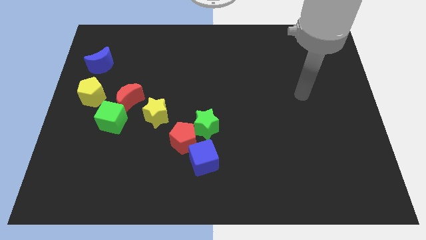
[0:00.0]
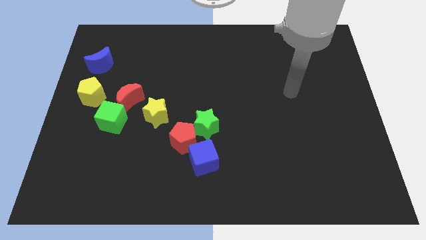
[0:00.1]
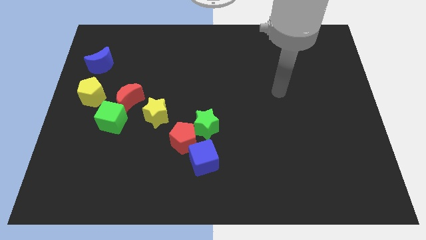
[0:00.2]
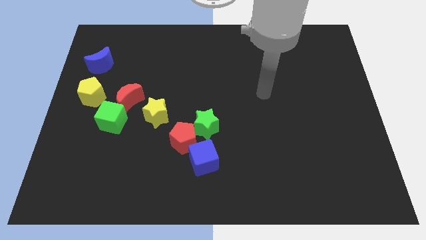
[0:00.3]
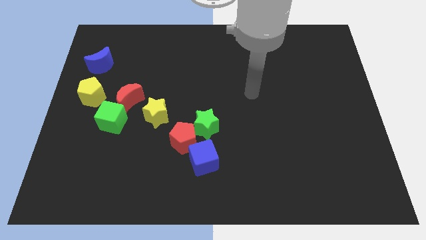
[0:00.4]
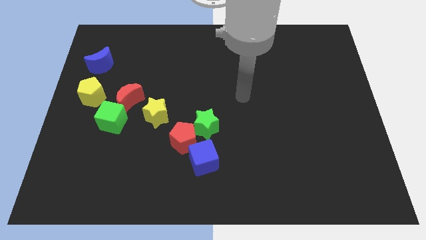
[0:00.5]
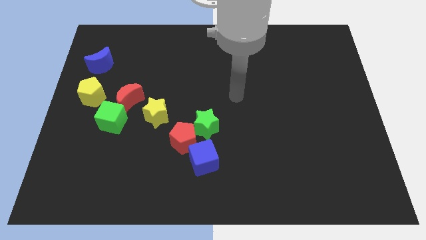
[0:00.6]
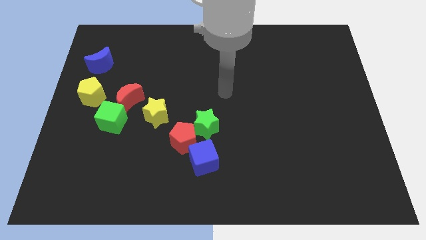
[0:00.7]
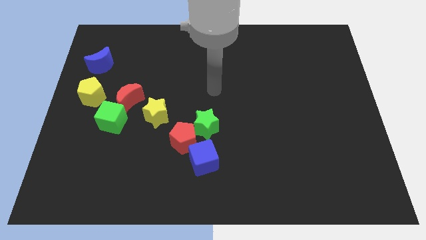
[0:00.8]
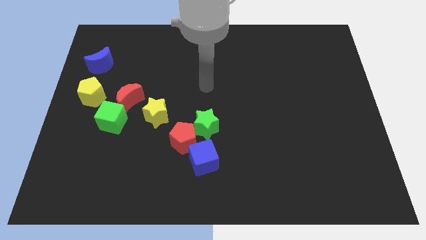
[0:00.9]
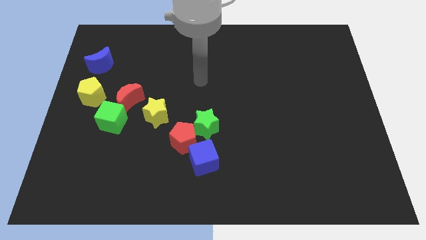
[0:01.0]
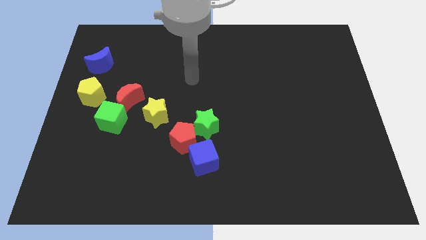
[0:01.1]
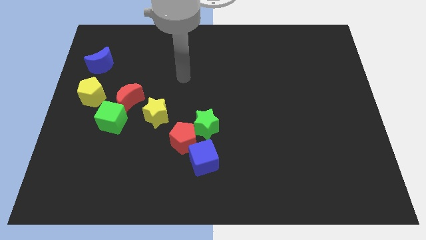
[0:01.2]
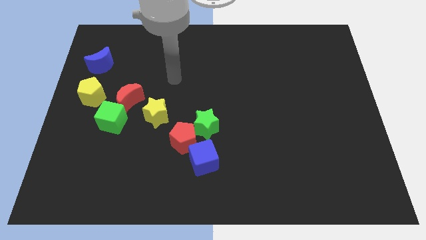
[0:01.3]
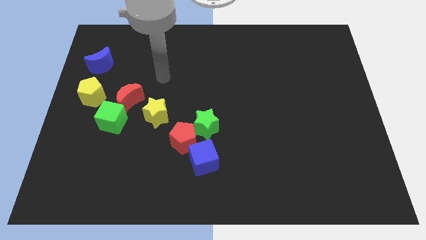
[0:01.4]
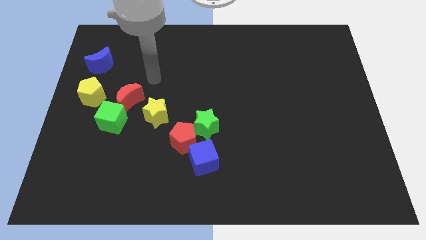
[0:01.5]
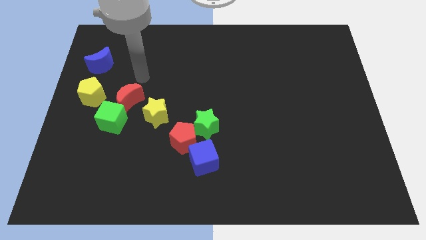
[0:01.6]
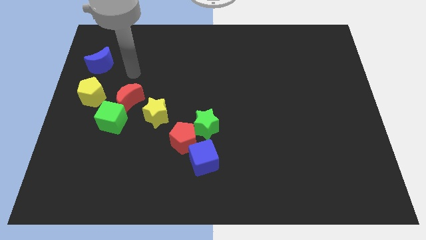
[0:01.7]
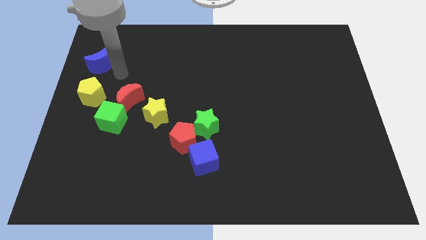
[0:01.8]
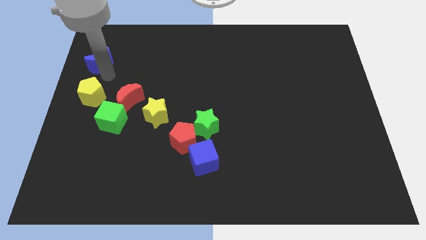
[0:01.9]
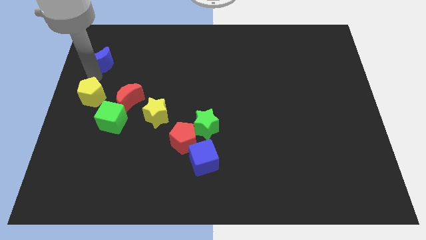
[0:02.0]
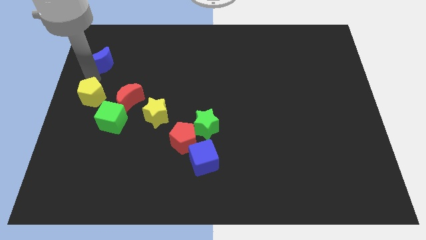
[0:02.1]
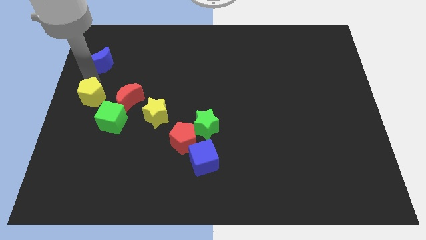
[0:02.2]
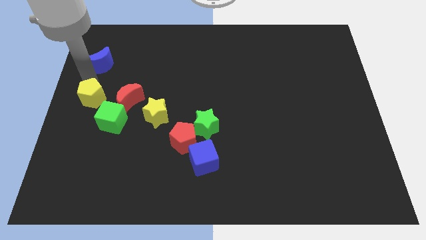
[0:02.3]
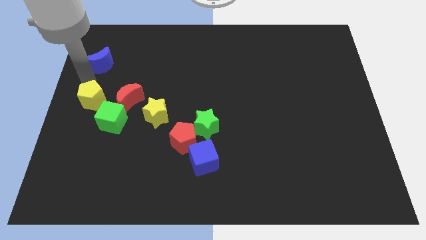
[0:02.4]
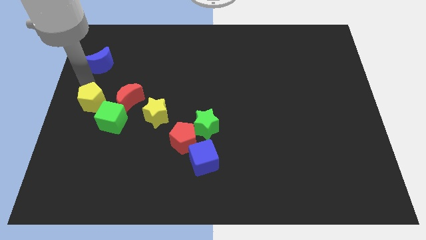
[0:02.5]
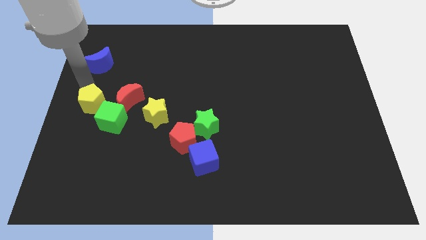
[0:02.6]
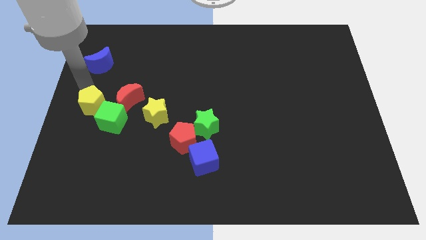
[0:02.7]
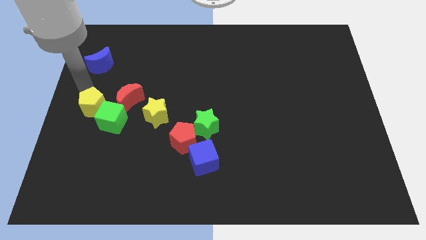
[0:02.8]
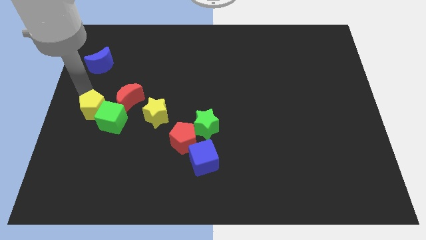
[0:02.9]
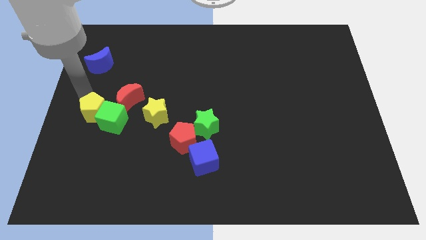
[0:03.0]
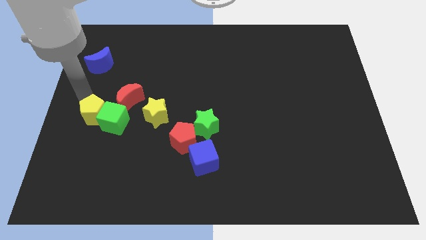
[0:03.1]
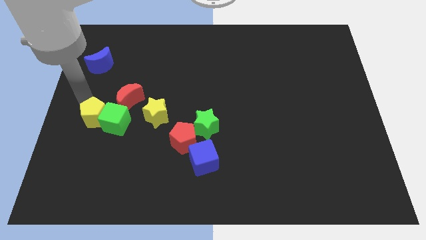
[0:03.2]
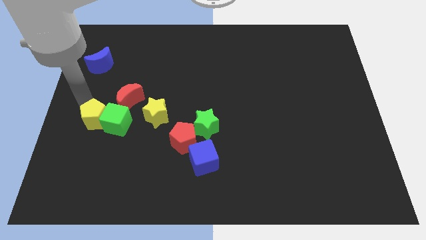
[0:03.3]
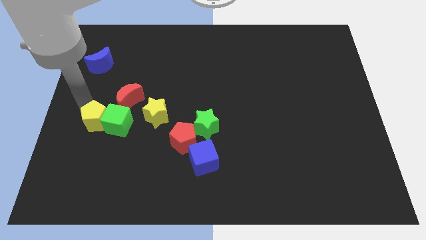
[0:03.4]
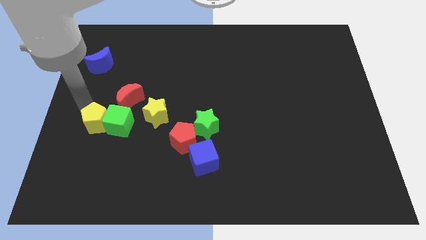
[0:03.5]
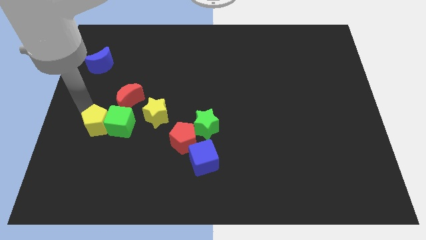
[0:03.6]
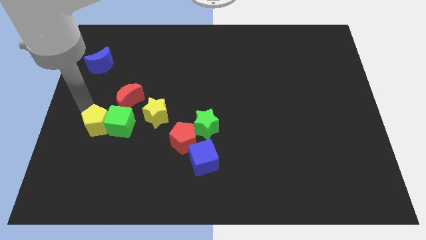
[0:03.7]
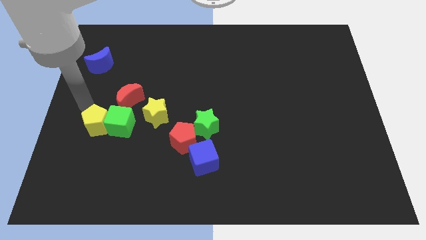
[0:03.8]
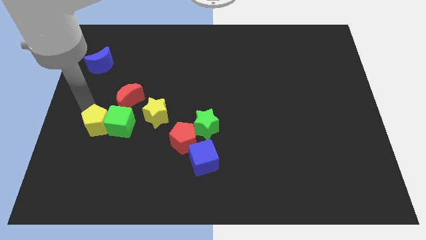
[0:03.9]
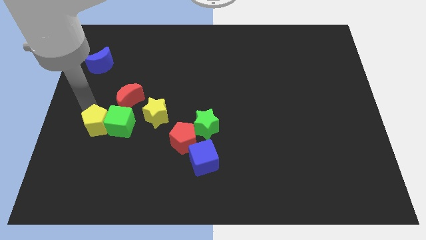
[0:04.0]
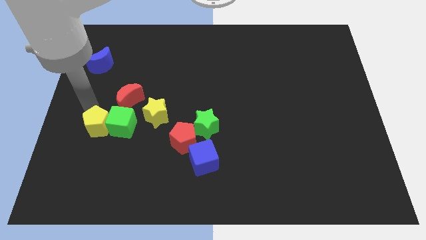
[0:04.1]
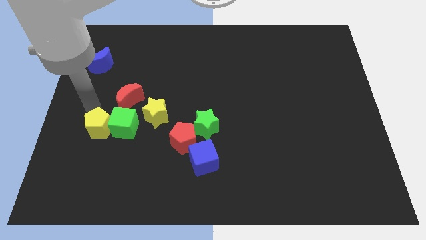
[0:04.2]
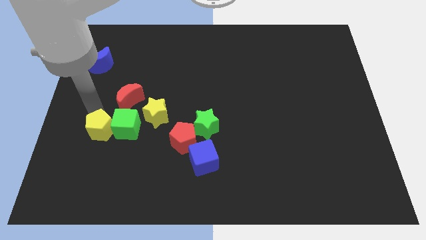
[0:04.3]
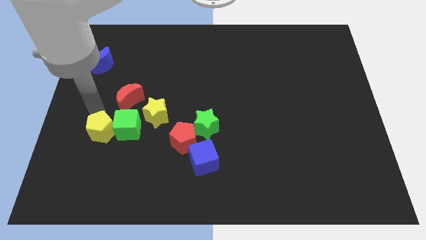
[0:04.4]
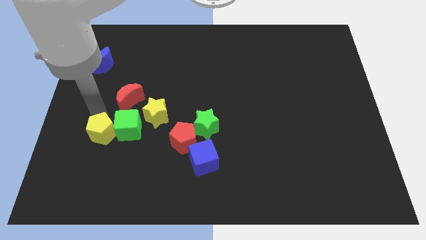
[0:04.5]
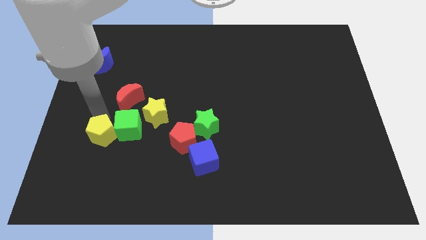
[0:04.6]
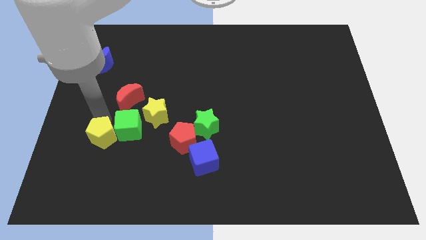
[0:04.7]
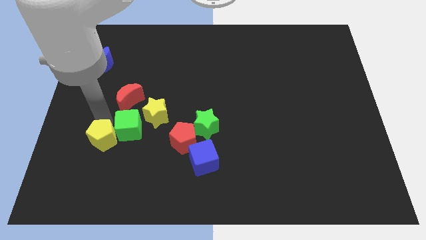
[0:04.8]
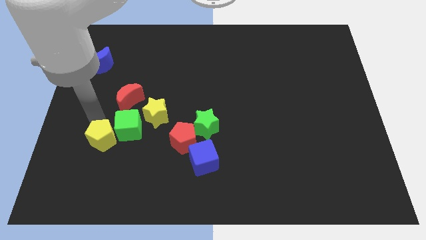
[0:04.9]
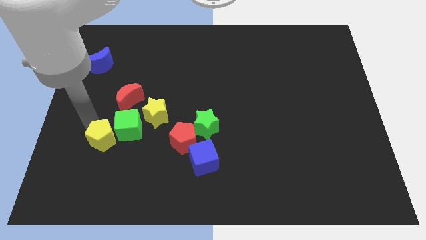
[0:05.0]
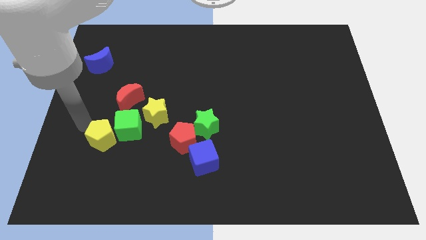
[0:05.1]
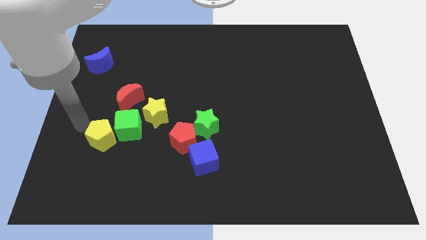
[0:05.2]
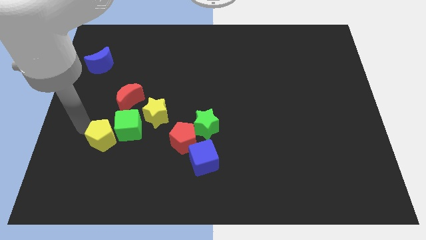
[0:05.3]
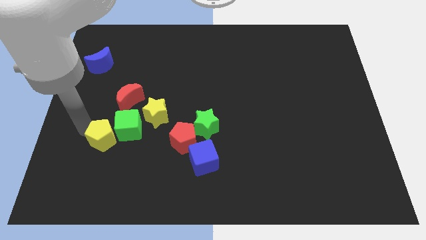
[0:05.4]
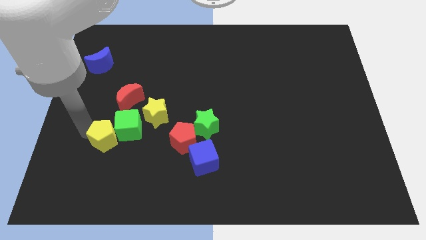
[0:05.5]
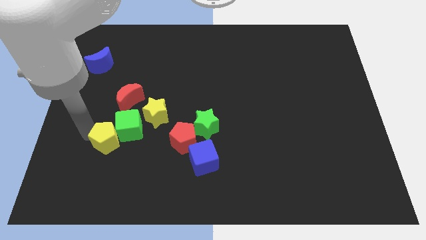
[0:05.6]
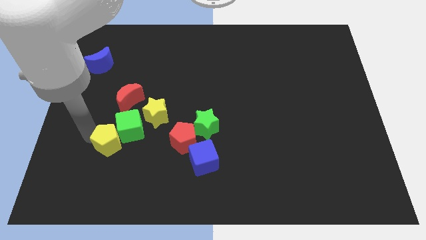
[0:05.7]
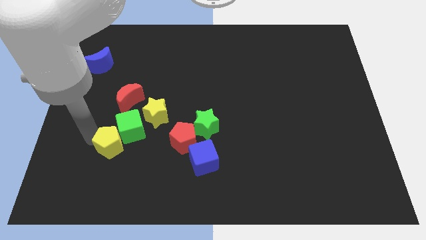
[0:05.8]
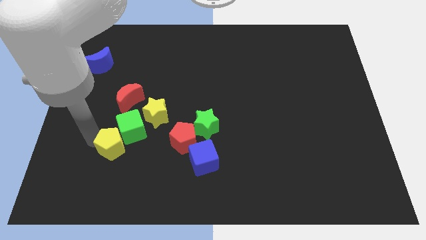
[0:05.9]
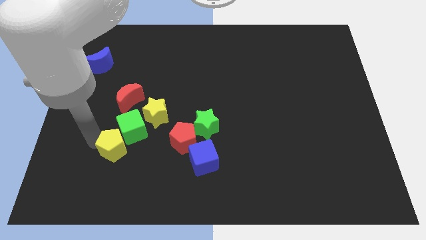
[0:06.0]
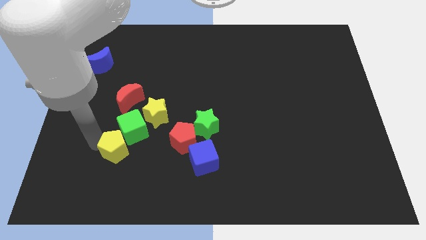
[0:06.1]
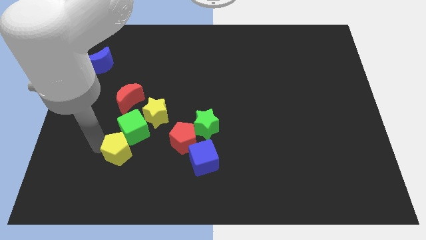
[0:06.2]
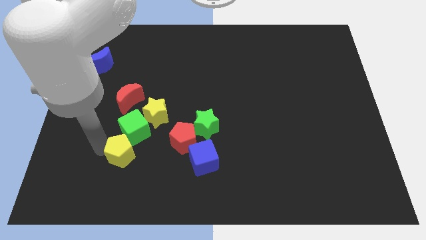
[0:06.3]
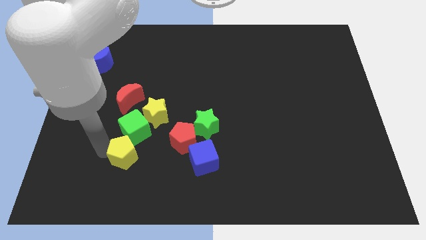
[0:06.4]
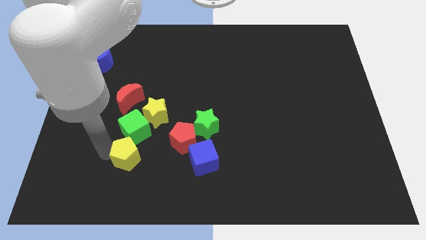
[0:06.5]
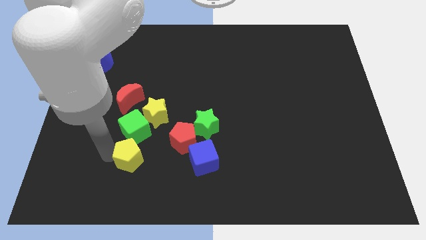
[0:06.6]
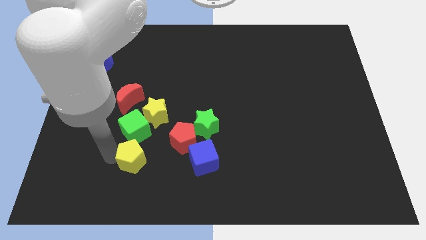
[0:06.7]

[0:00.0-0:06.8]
move the yellow pentagon diagonally down and to the right

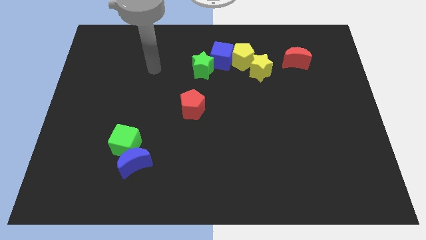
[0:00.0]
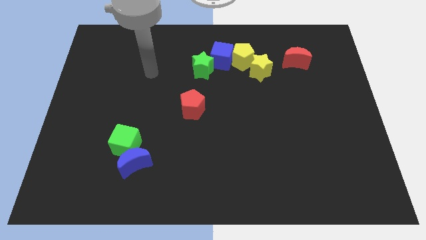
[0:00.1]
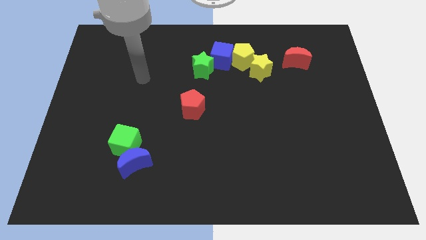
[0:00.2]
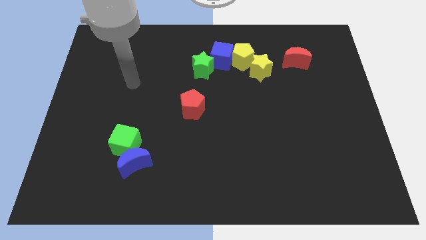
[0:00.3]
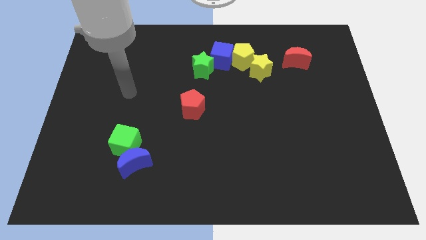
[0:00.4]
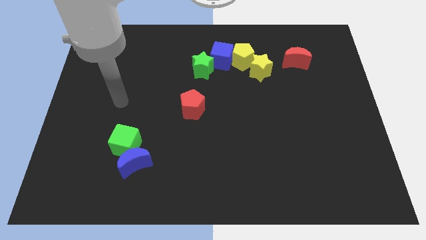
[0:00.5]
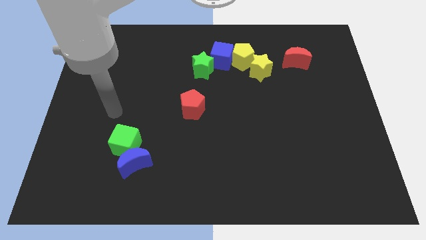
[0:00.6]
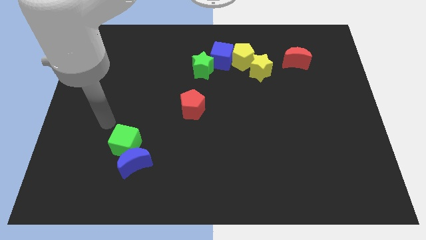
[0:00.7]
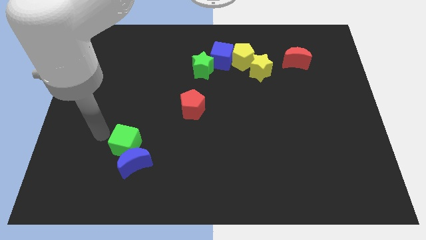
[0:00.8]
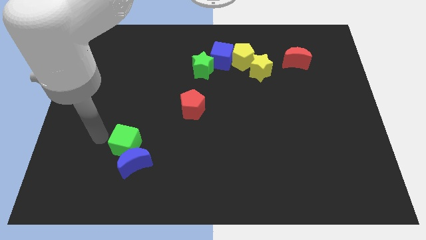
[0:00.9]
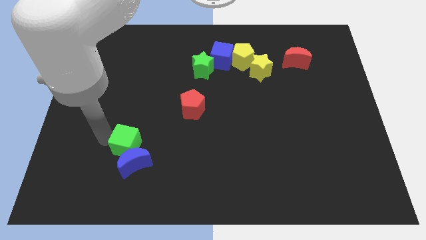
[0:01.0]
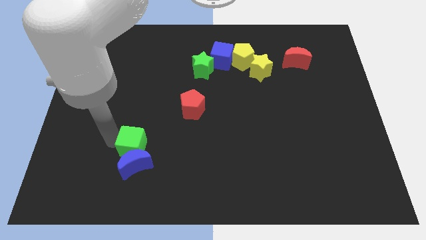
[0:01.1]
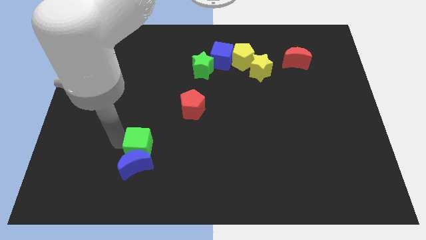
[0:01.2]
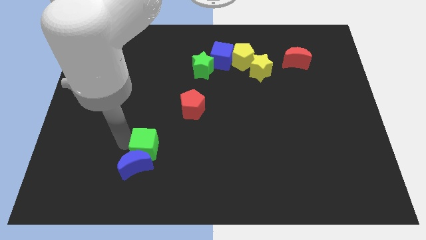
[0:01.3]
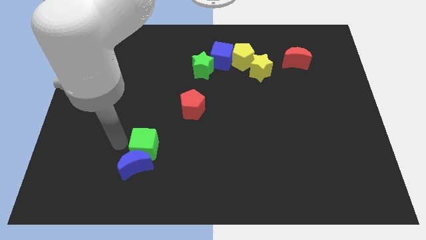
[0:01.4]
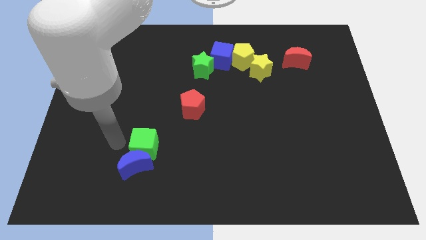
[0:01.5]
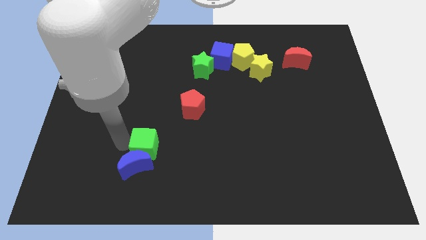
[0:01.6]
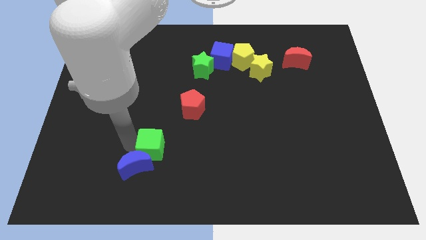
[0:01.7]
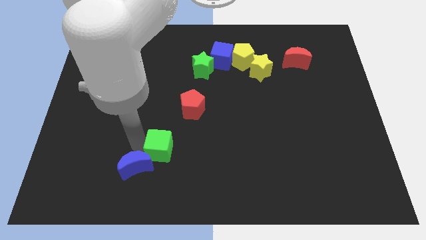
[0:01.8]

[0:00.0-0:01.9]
move the green cube to the right somewhat
